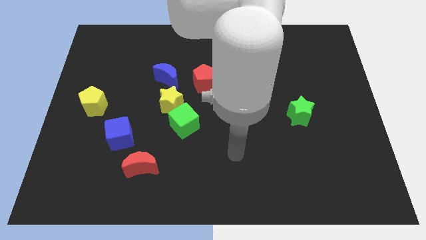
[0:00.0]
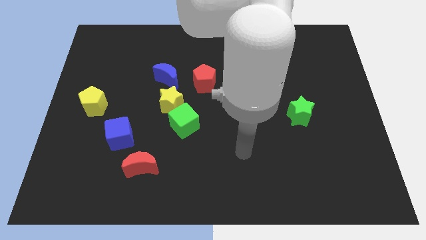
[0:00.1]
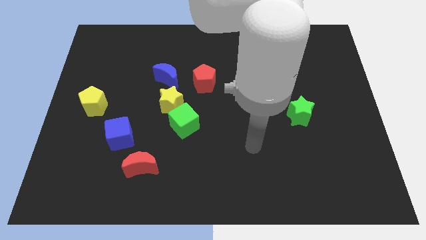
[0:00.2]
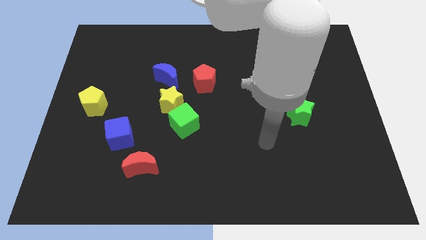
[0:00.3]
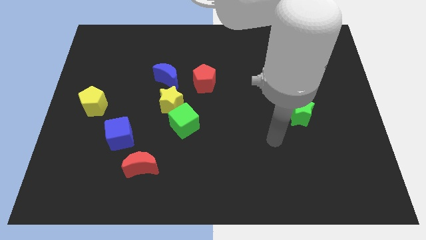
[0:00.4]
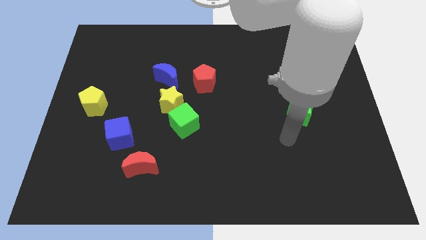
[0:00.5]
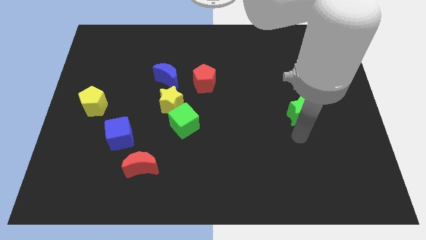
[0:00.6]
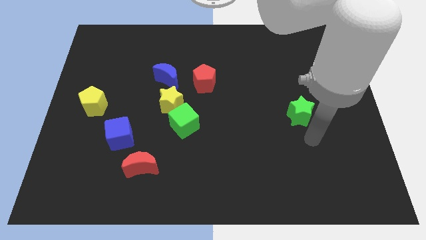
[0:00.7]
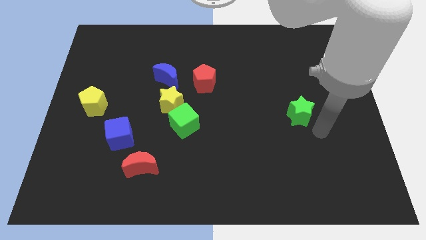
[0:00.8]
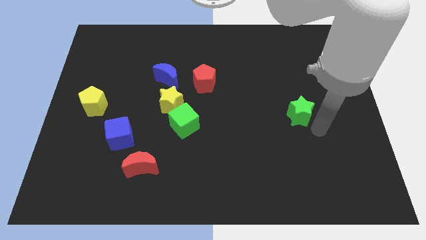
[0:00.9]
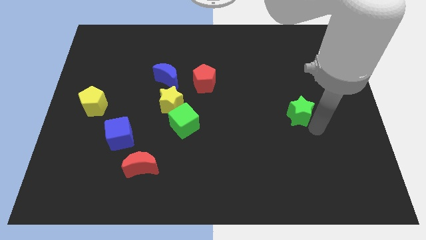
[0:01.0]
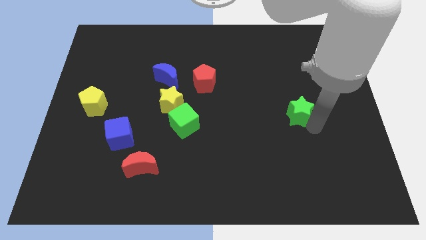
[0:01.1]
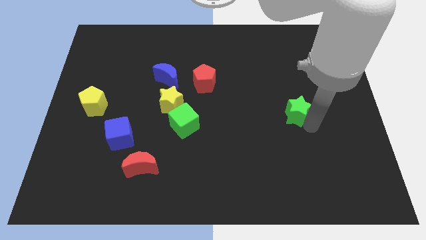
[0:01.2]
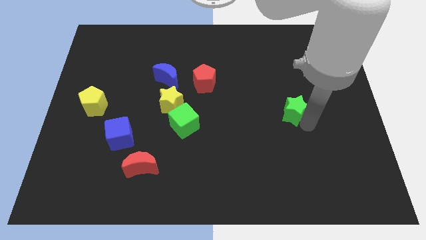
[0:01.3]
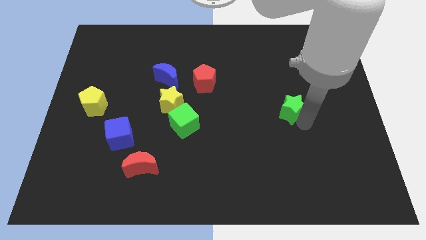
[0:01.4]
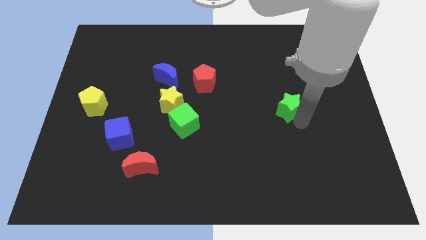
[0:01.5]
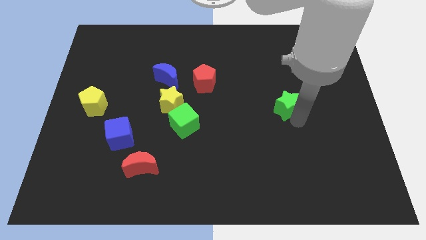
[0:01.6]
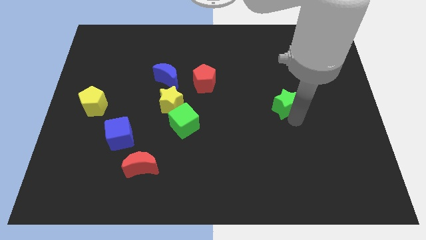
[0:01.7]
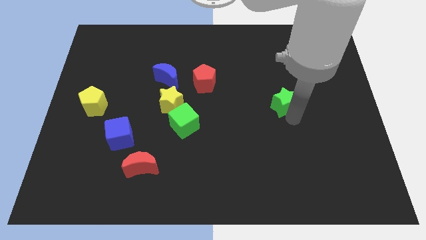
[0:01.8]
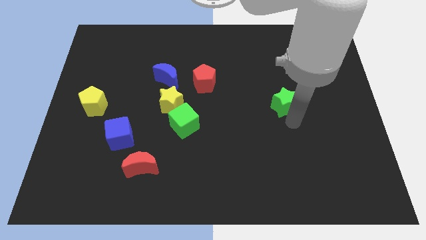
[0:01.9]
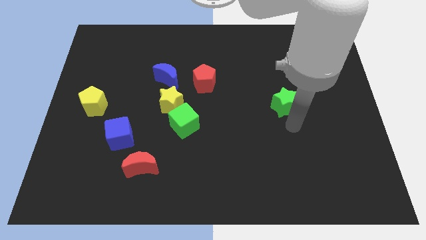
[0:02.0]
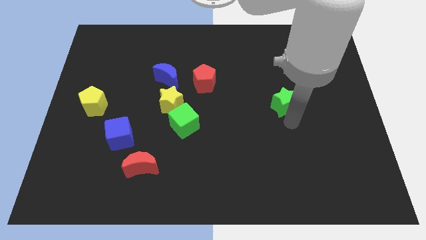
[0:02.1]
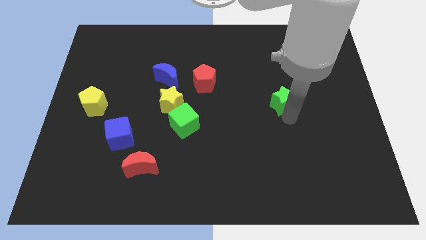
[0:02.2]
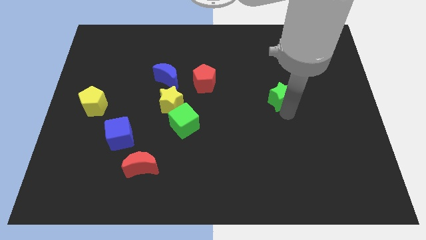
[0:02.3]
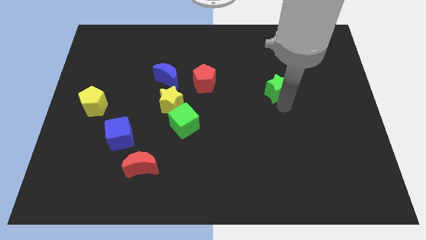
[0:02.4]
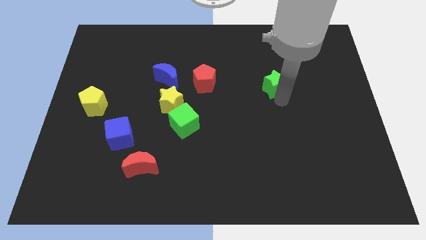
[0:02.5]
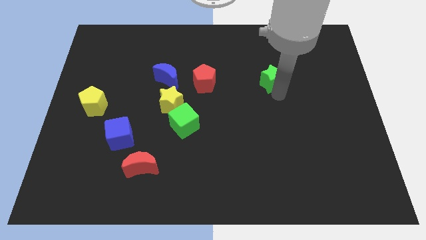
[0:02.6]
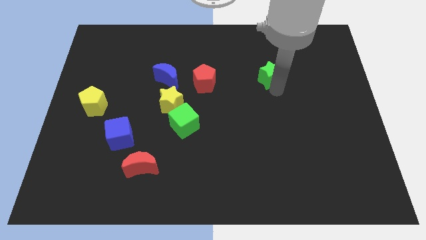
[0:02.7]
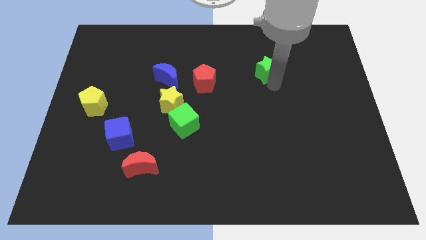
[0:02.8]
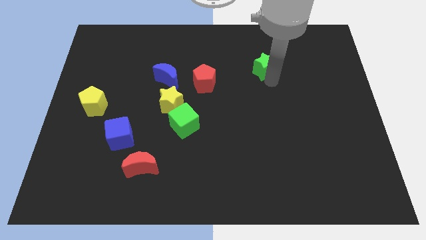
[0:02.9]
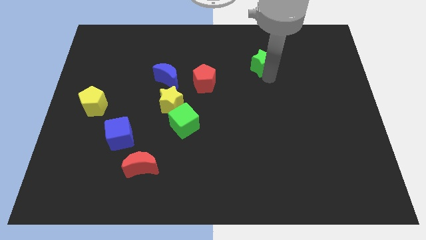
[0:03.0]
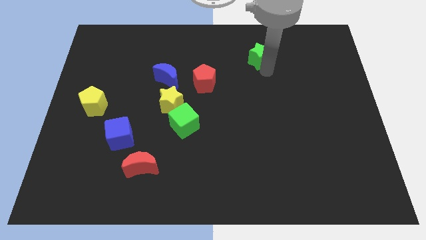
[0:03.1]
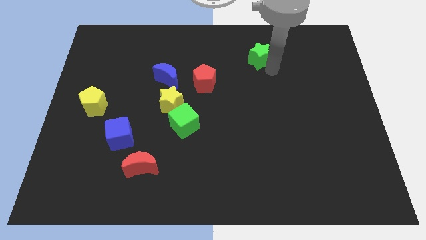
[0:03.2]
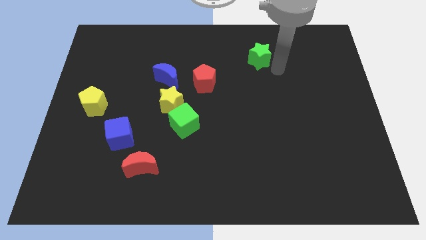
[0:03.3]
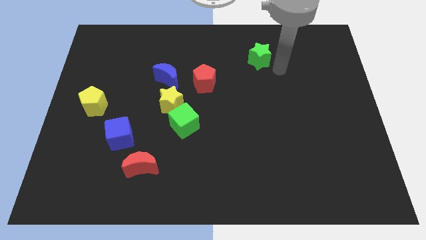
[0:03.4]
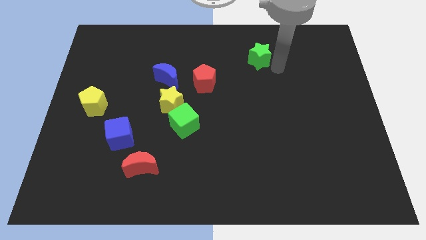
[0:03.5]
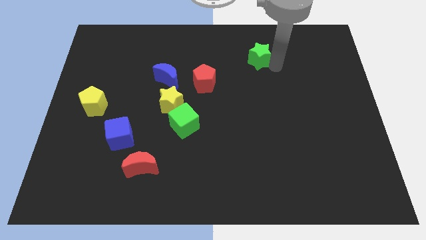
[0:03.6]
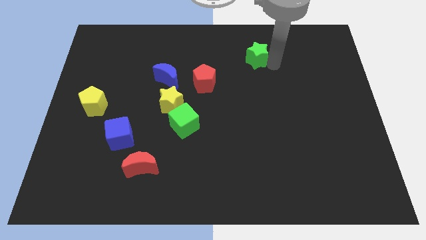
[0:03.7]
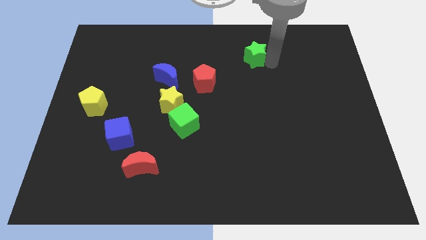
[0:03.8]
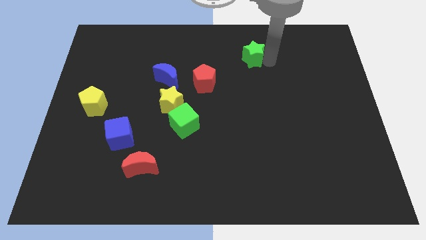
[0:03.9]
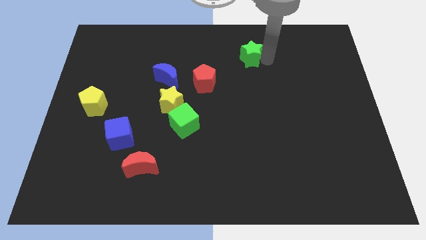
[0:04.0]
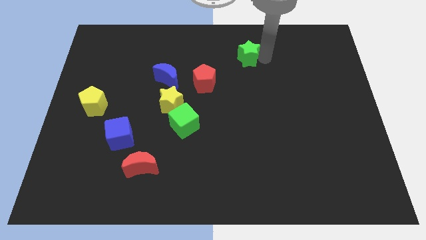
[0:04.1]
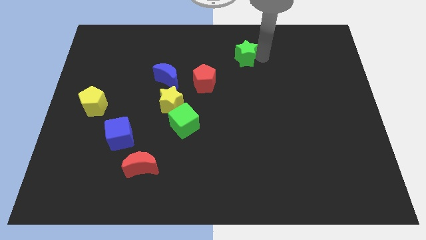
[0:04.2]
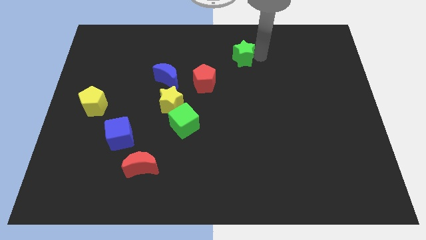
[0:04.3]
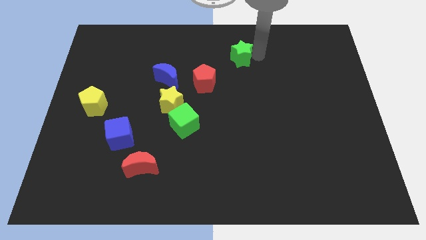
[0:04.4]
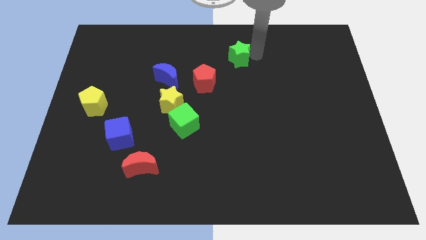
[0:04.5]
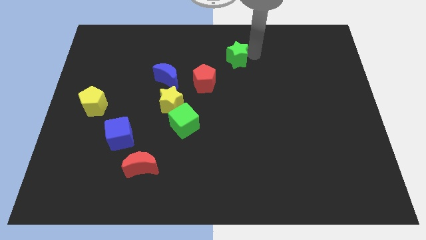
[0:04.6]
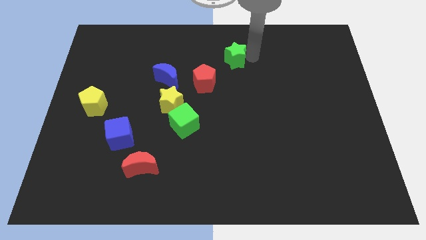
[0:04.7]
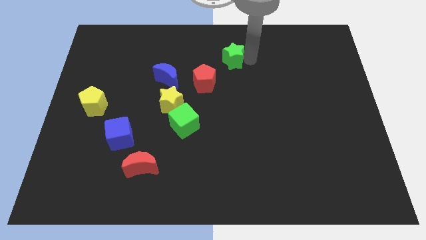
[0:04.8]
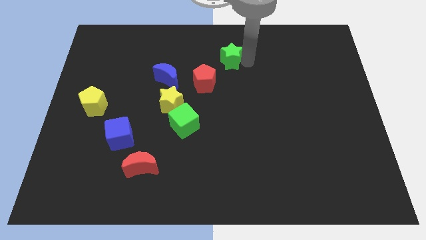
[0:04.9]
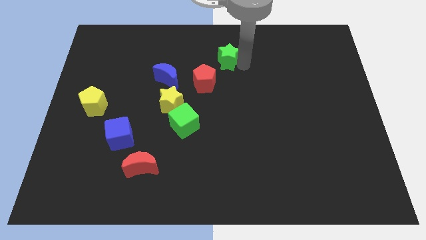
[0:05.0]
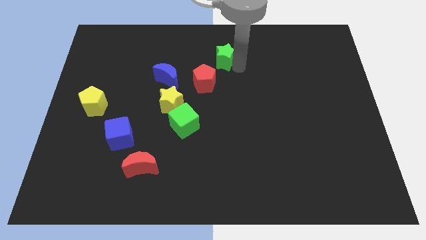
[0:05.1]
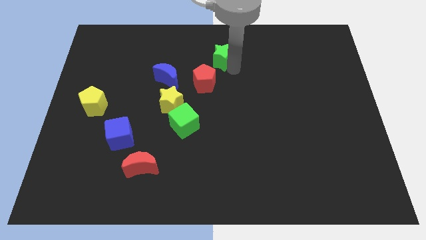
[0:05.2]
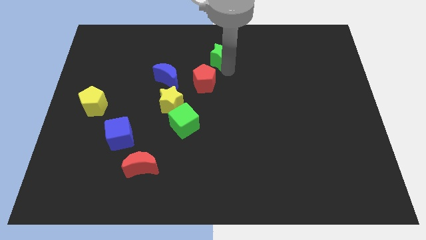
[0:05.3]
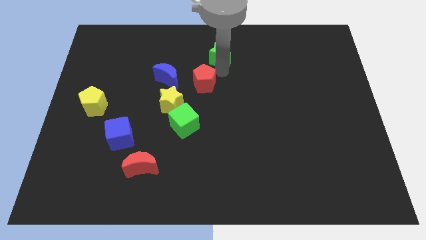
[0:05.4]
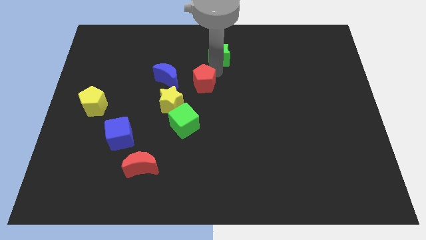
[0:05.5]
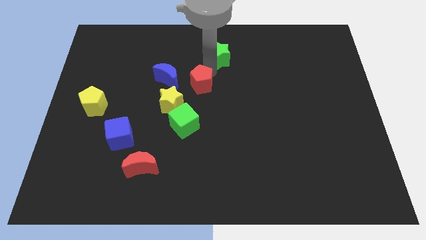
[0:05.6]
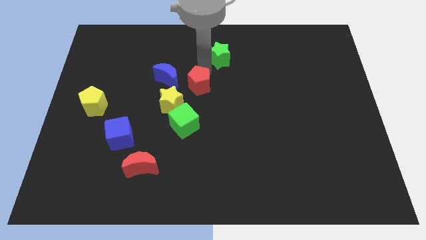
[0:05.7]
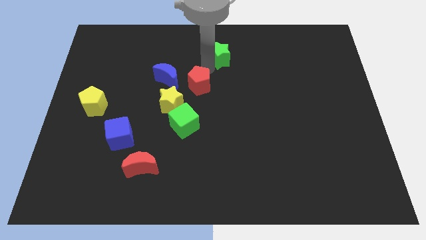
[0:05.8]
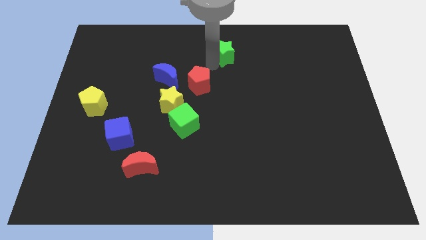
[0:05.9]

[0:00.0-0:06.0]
push the green star to the top side

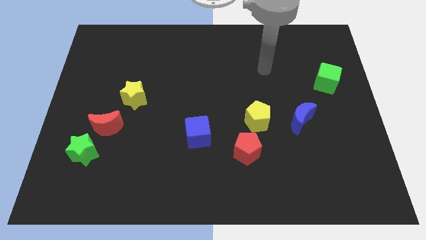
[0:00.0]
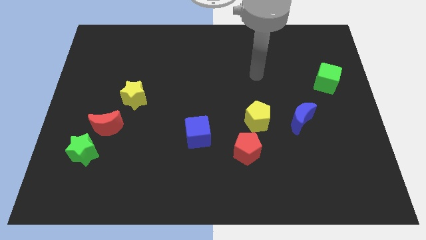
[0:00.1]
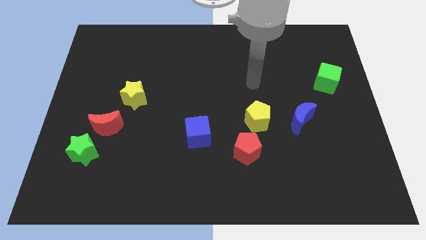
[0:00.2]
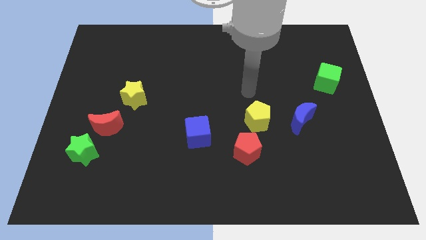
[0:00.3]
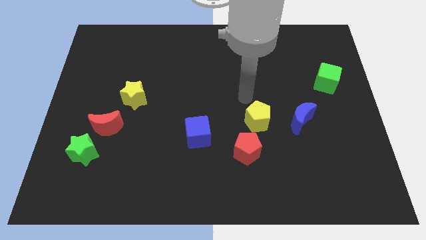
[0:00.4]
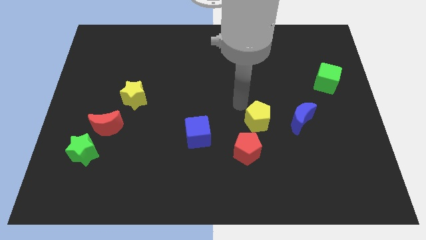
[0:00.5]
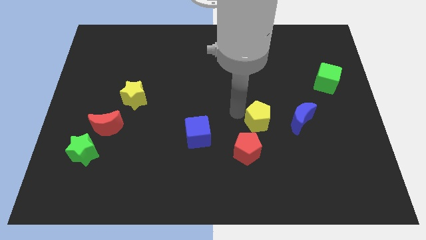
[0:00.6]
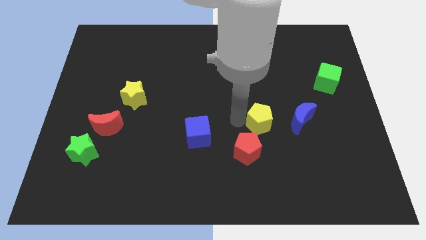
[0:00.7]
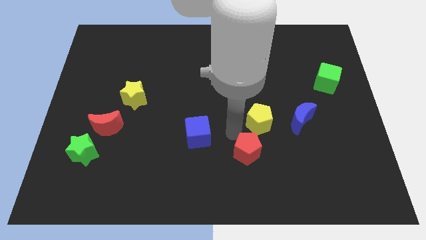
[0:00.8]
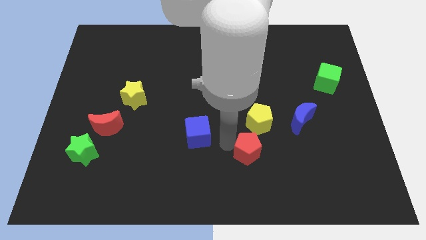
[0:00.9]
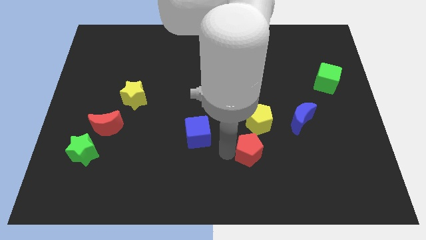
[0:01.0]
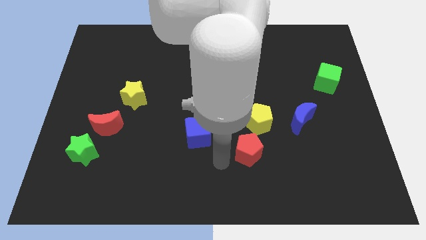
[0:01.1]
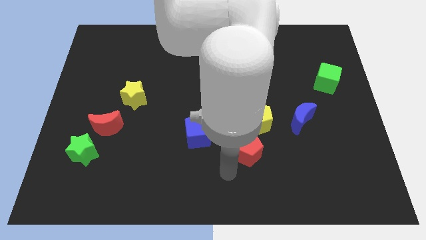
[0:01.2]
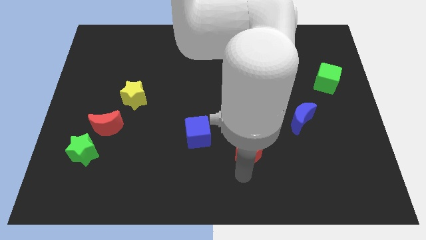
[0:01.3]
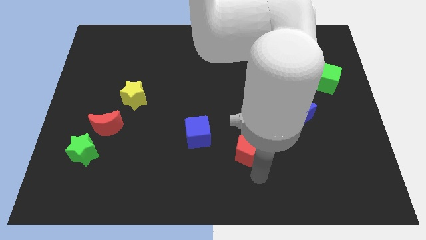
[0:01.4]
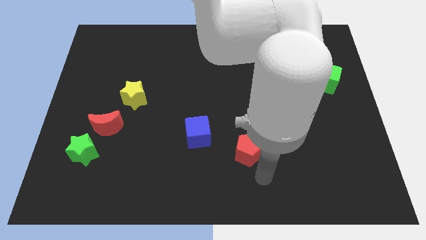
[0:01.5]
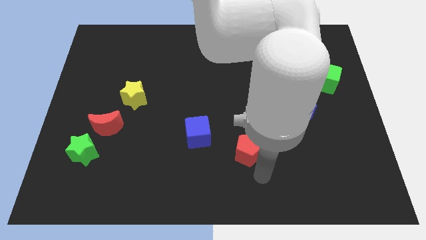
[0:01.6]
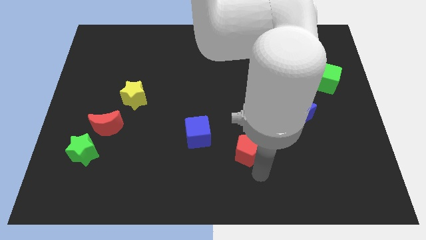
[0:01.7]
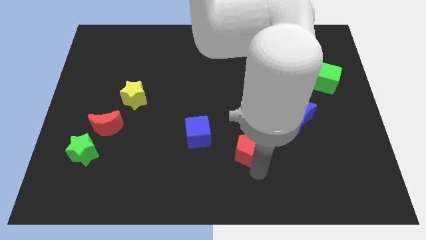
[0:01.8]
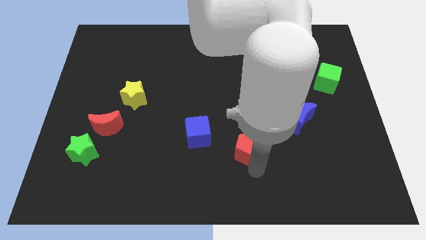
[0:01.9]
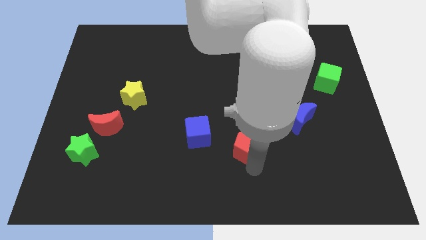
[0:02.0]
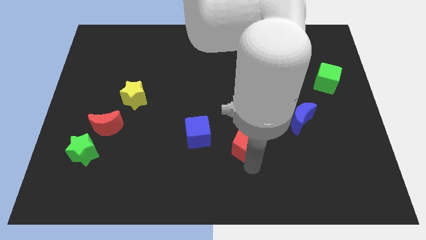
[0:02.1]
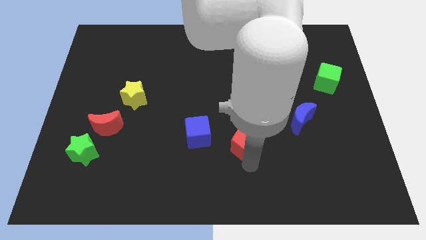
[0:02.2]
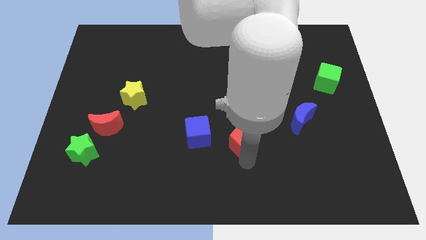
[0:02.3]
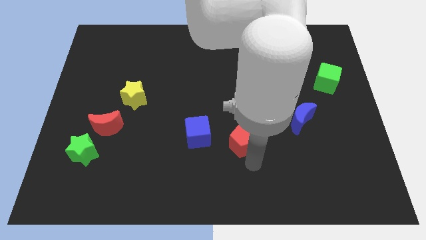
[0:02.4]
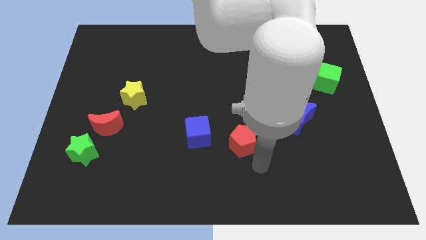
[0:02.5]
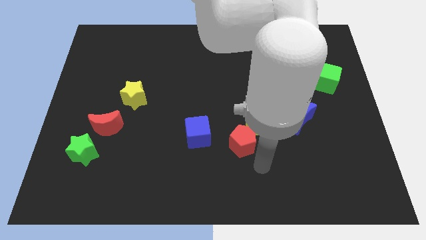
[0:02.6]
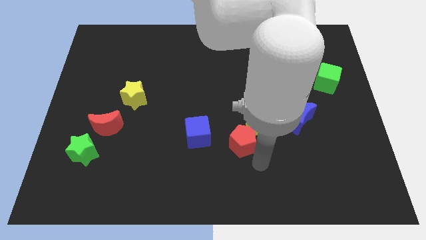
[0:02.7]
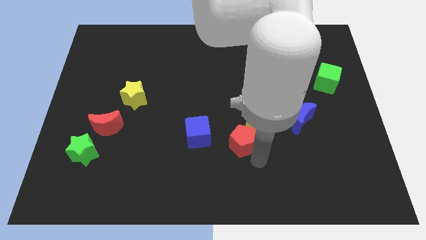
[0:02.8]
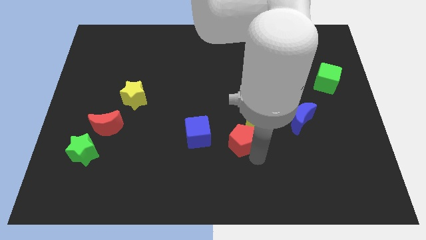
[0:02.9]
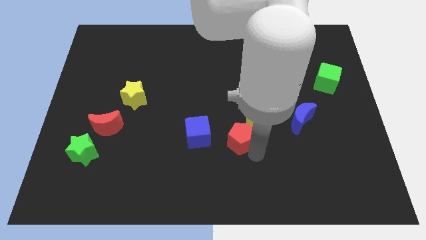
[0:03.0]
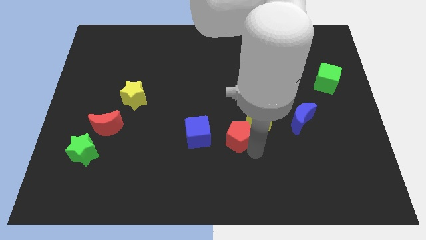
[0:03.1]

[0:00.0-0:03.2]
slide the red pentagon to the middle
